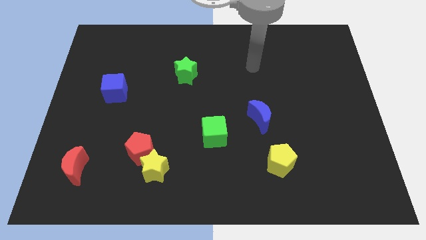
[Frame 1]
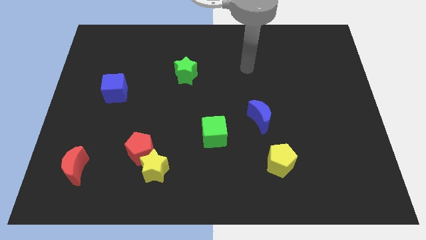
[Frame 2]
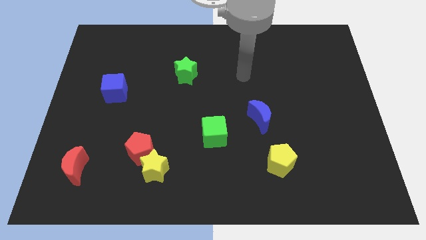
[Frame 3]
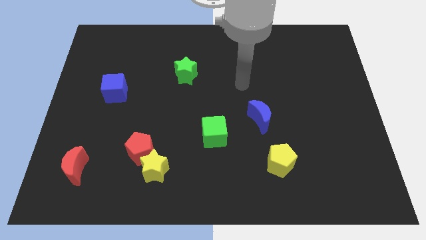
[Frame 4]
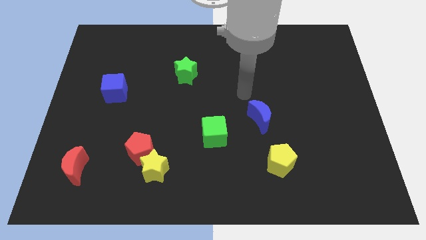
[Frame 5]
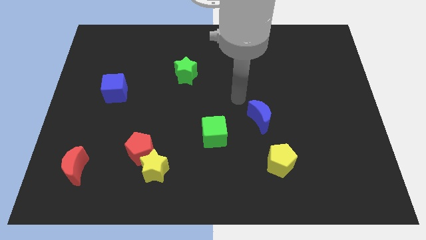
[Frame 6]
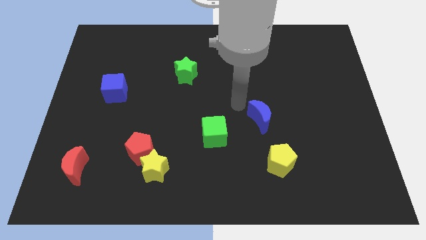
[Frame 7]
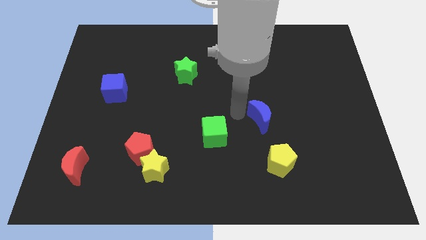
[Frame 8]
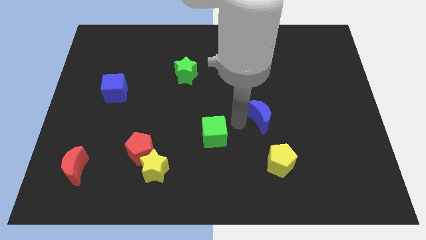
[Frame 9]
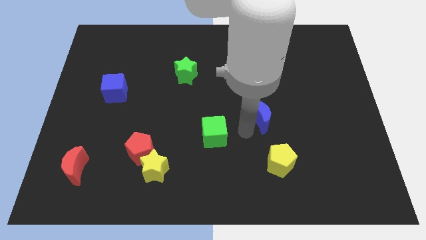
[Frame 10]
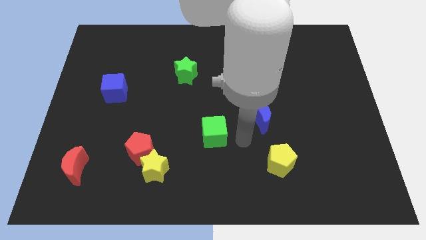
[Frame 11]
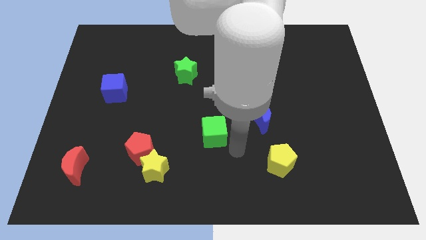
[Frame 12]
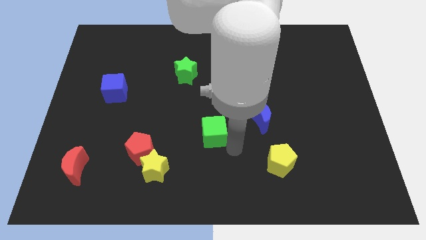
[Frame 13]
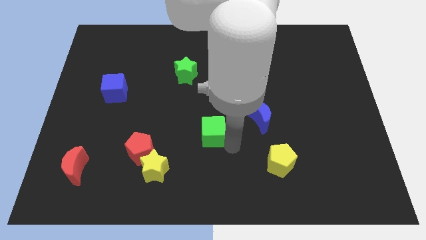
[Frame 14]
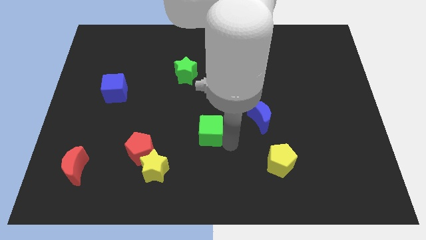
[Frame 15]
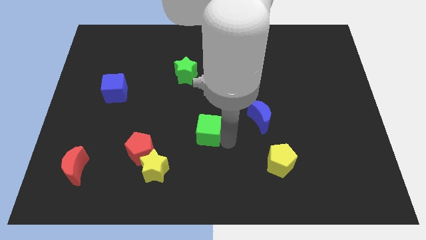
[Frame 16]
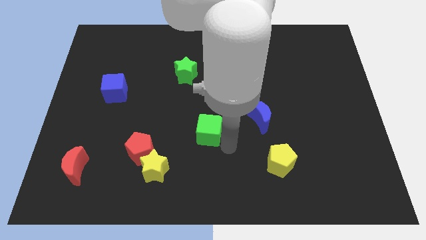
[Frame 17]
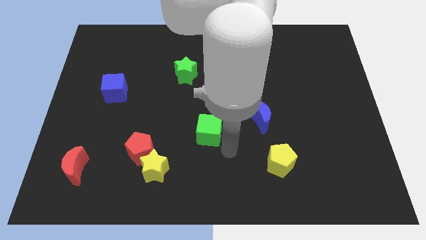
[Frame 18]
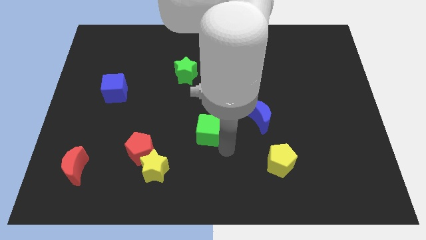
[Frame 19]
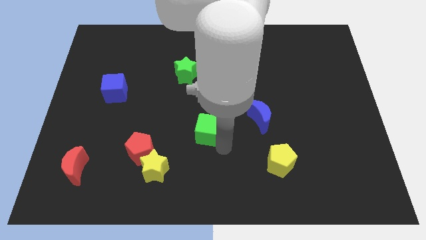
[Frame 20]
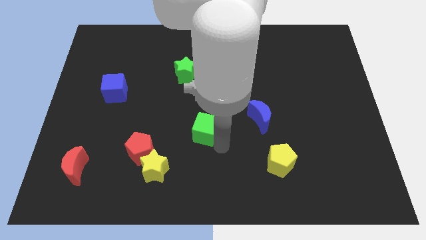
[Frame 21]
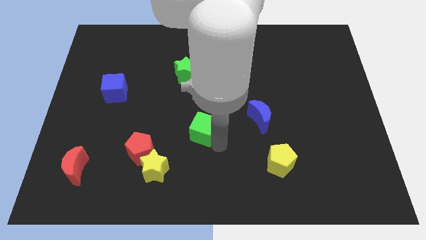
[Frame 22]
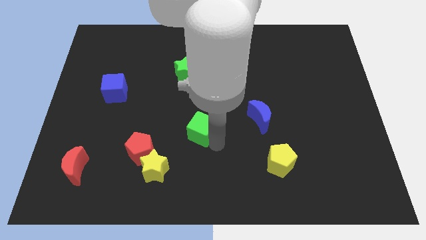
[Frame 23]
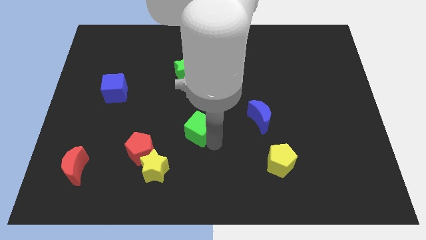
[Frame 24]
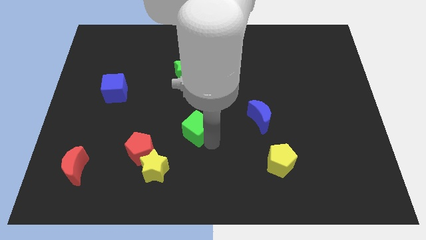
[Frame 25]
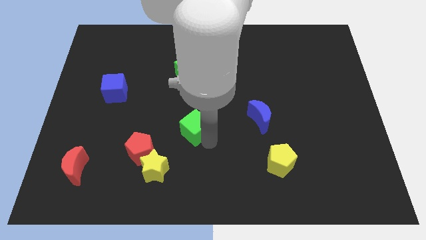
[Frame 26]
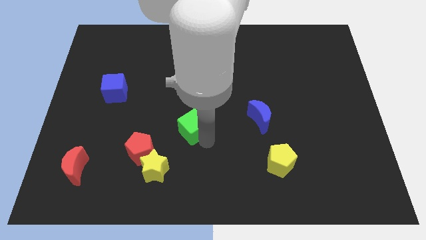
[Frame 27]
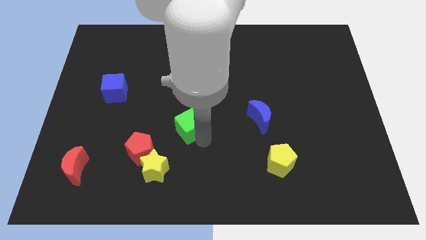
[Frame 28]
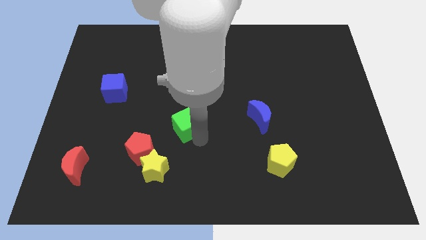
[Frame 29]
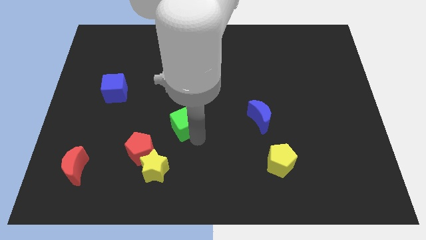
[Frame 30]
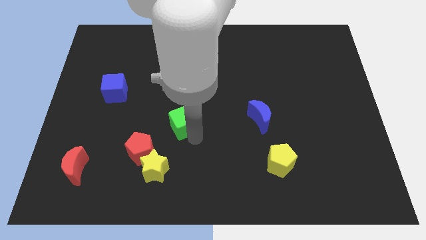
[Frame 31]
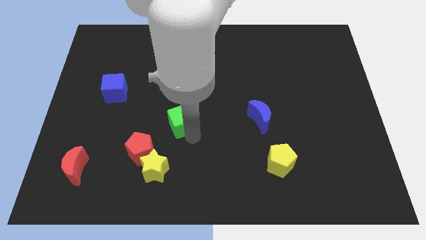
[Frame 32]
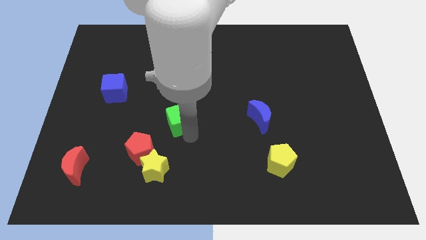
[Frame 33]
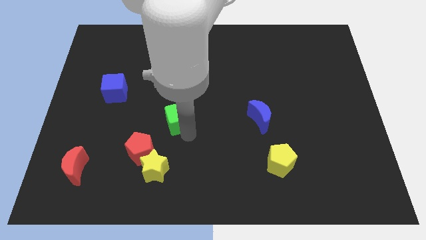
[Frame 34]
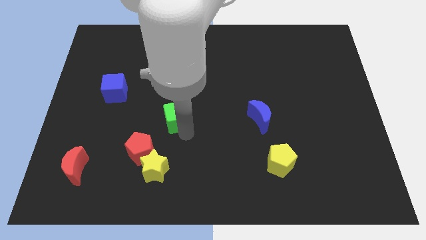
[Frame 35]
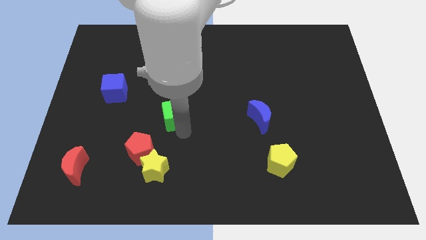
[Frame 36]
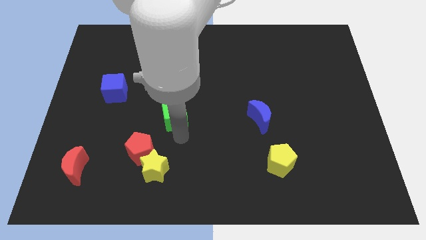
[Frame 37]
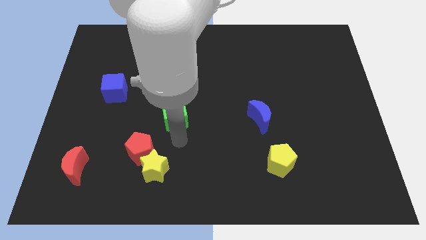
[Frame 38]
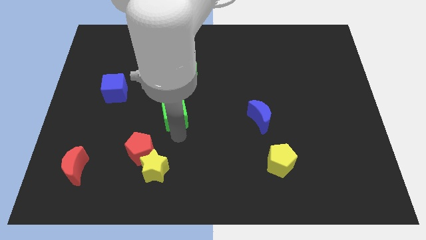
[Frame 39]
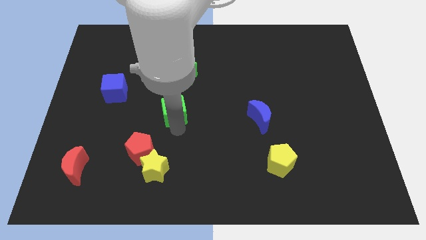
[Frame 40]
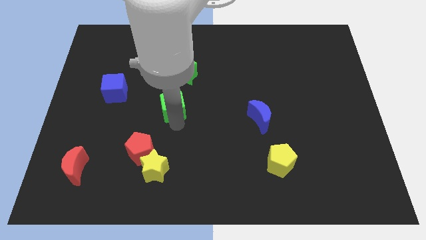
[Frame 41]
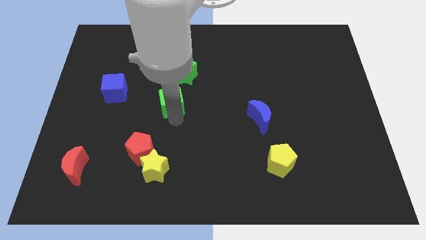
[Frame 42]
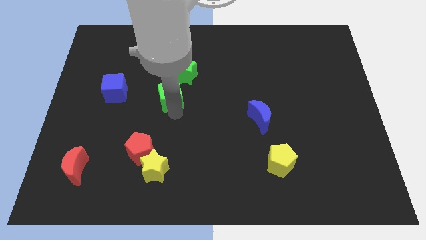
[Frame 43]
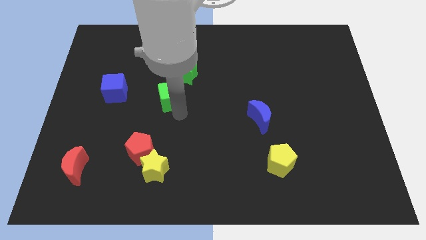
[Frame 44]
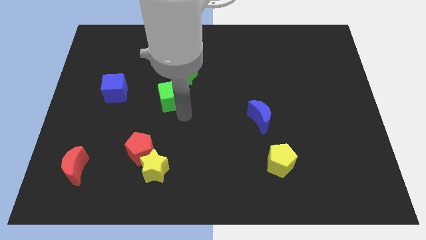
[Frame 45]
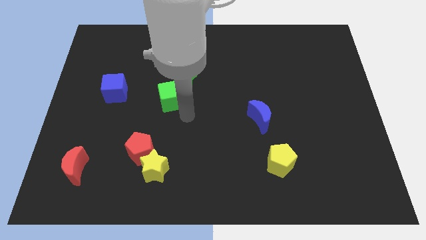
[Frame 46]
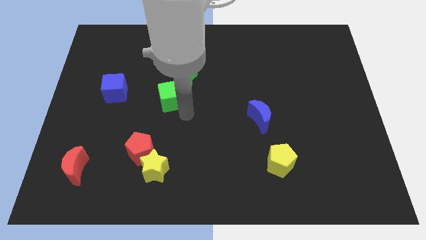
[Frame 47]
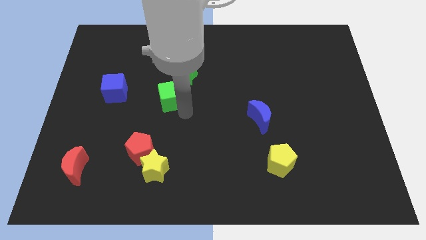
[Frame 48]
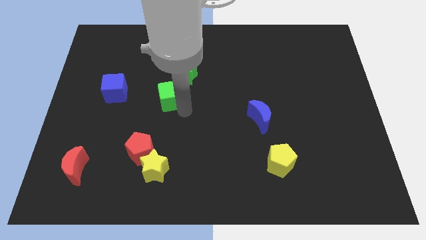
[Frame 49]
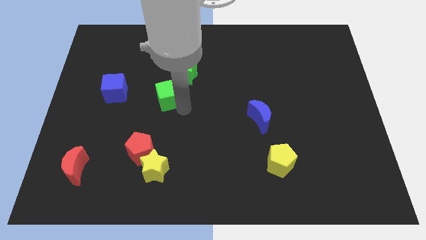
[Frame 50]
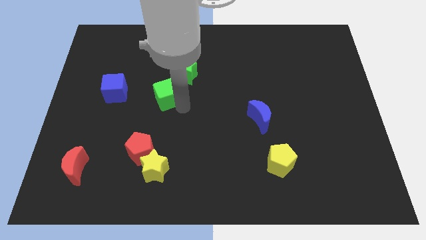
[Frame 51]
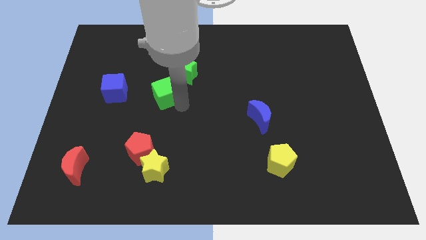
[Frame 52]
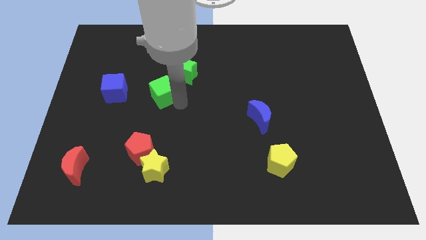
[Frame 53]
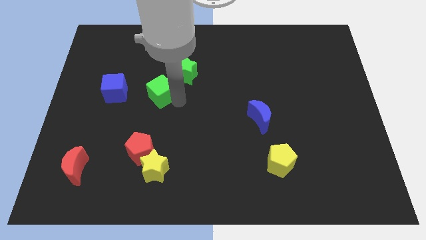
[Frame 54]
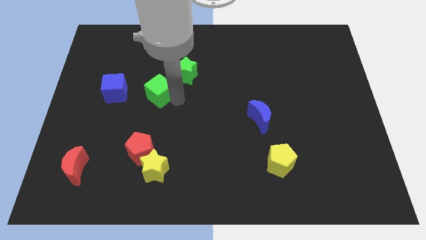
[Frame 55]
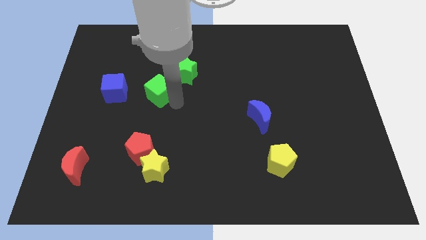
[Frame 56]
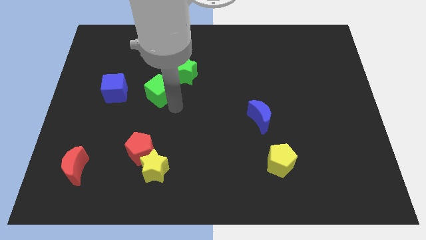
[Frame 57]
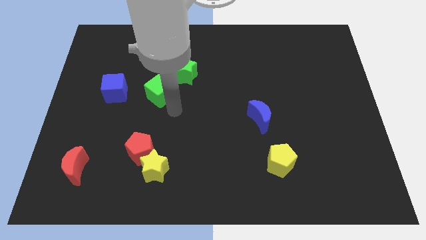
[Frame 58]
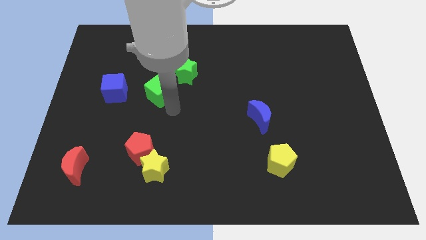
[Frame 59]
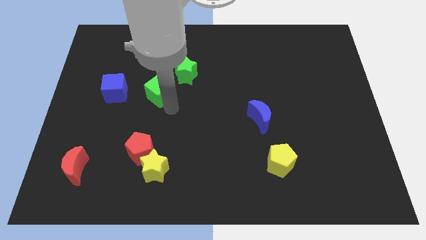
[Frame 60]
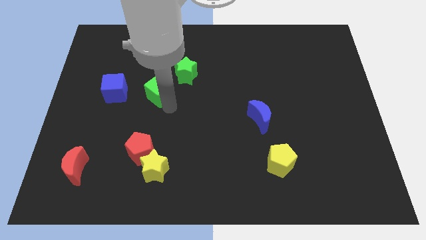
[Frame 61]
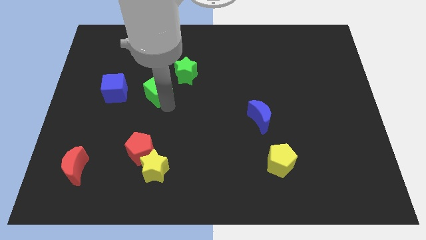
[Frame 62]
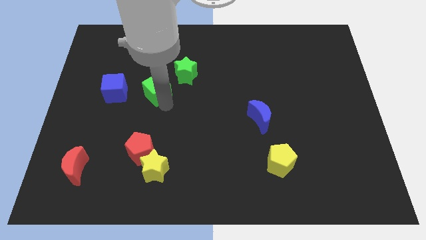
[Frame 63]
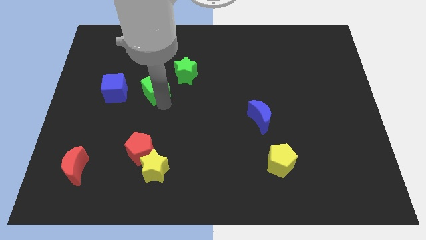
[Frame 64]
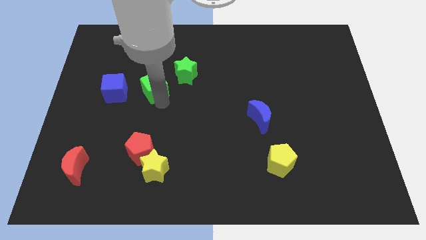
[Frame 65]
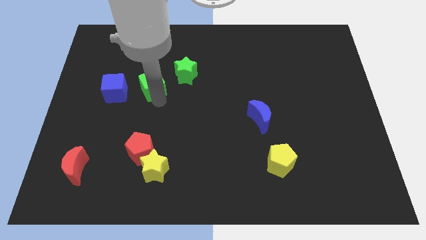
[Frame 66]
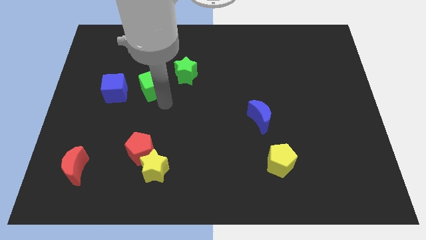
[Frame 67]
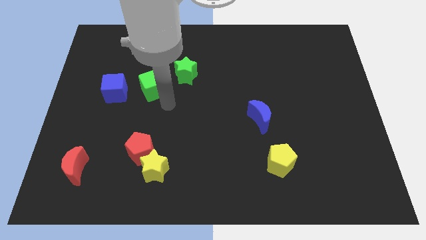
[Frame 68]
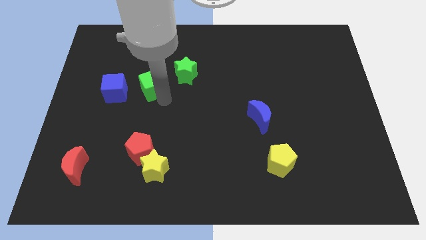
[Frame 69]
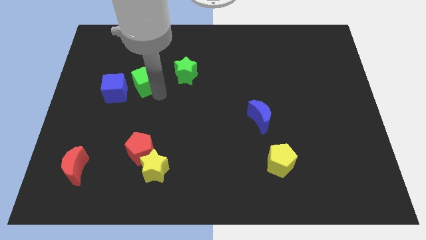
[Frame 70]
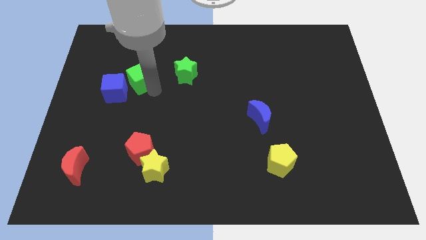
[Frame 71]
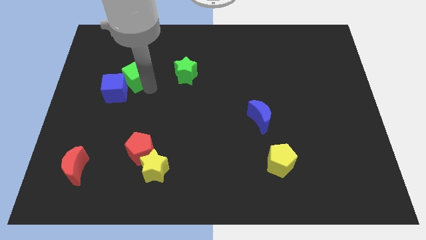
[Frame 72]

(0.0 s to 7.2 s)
push the green cube to the top of the blue cube
